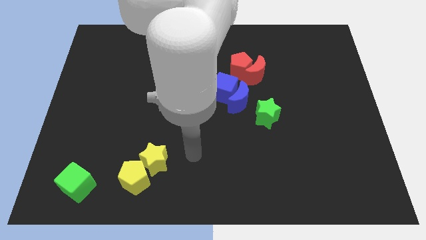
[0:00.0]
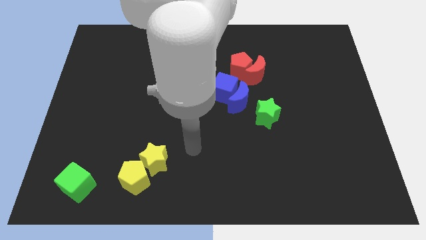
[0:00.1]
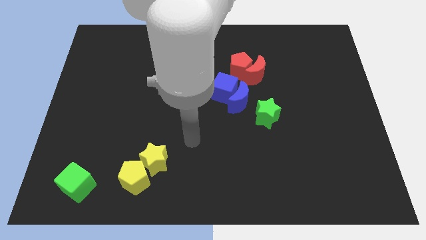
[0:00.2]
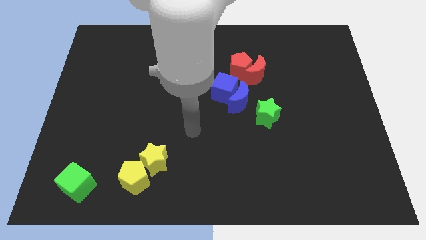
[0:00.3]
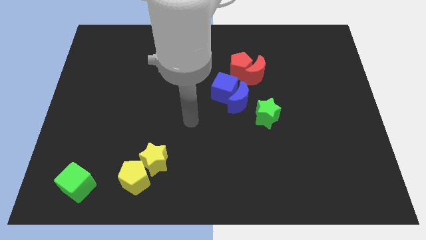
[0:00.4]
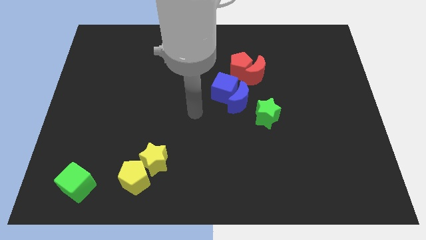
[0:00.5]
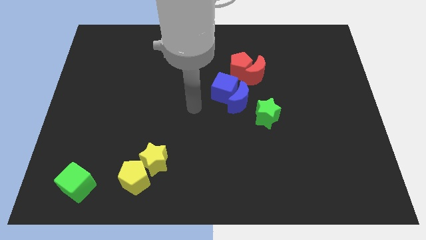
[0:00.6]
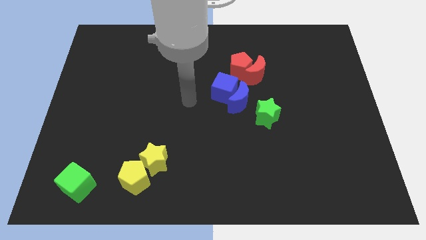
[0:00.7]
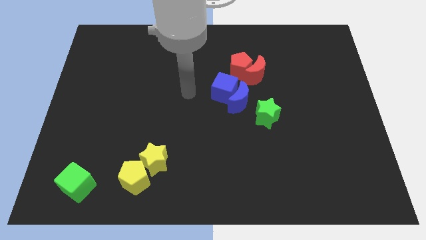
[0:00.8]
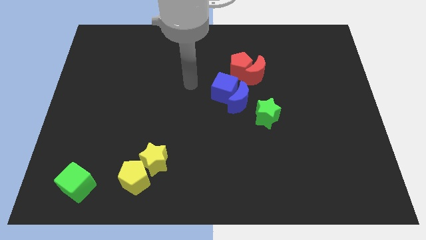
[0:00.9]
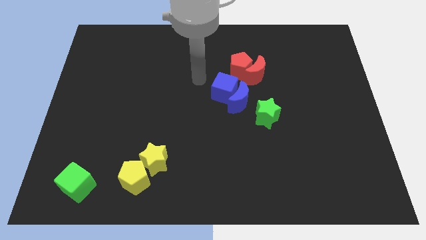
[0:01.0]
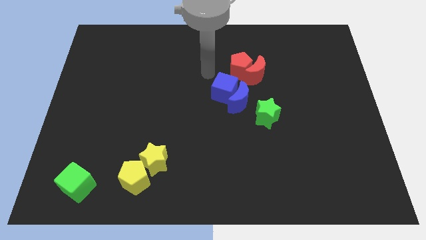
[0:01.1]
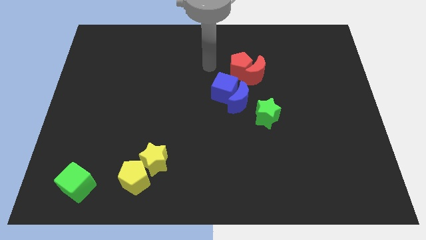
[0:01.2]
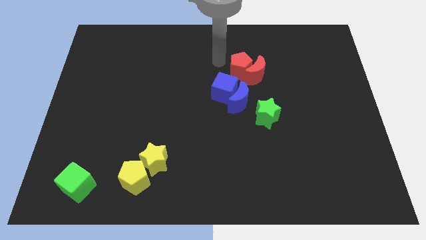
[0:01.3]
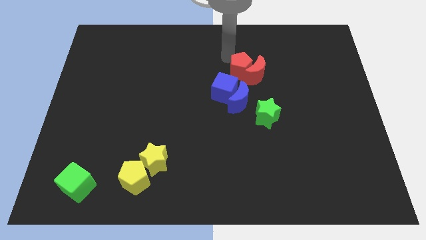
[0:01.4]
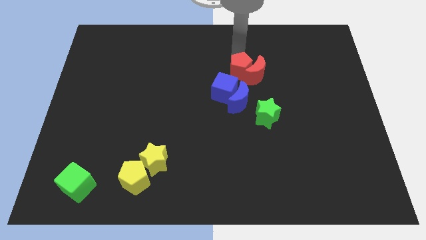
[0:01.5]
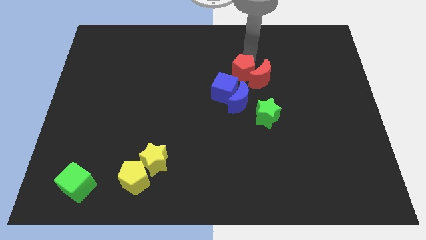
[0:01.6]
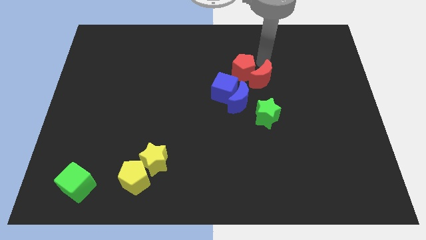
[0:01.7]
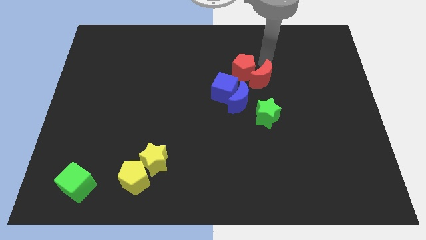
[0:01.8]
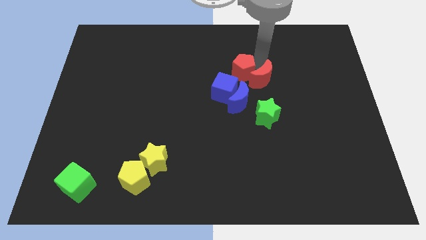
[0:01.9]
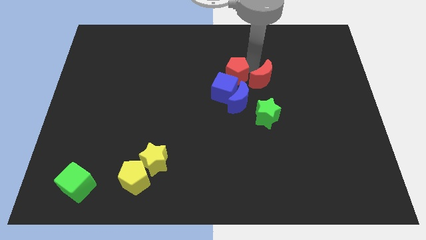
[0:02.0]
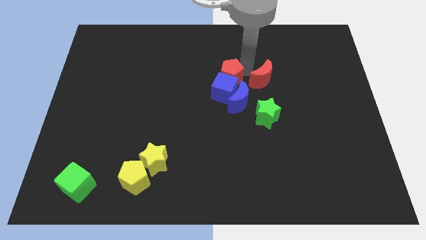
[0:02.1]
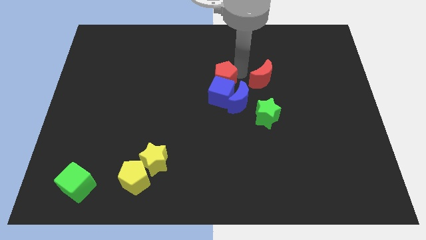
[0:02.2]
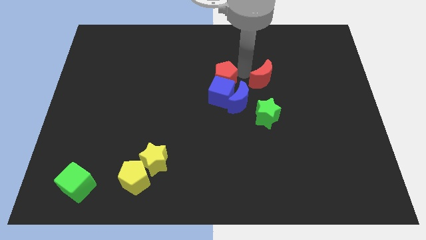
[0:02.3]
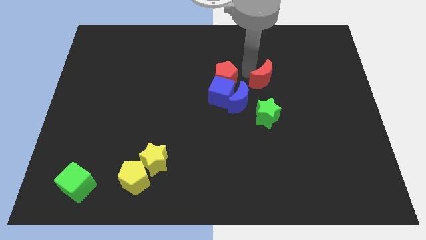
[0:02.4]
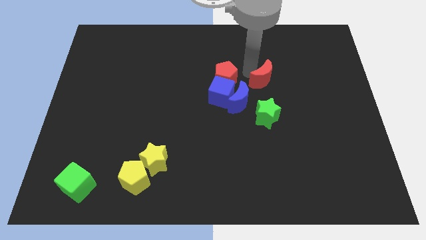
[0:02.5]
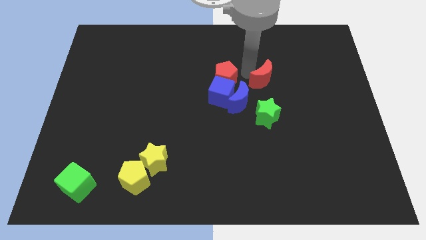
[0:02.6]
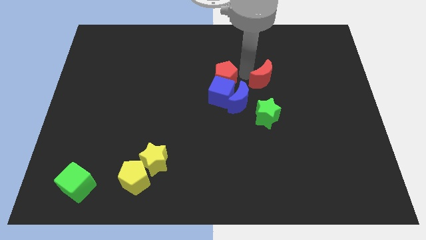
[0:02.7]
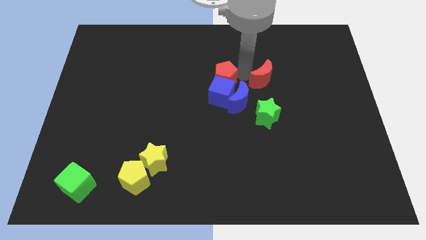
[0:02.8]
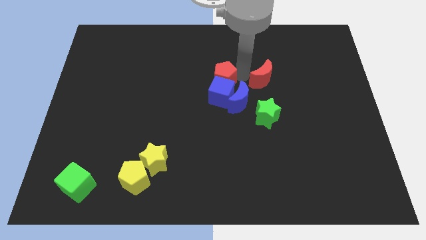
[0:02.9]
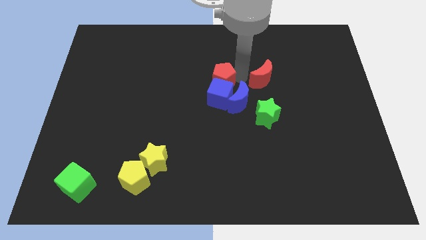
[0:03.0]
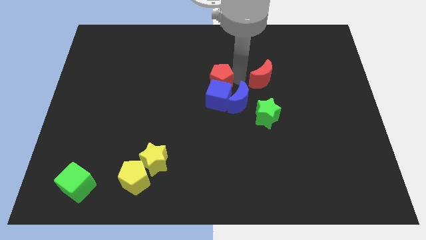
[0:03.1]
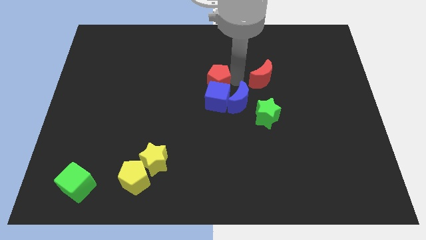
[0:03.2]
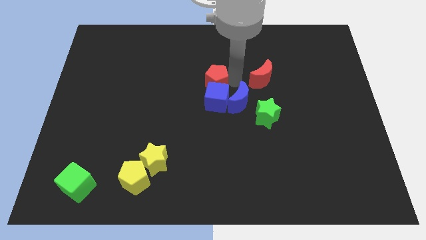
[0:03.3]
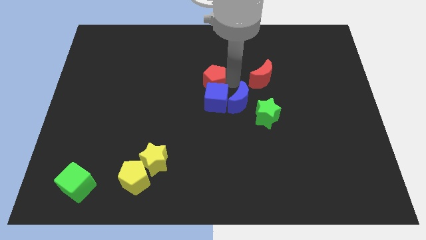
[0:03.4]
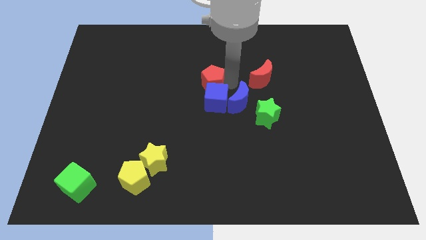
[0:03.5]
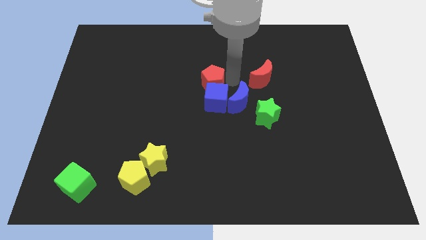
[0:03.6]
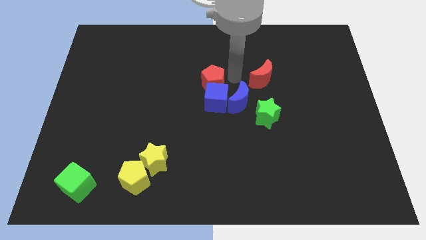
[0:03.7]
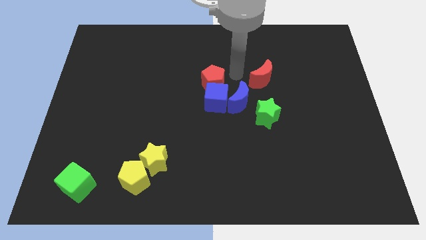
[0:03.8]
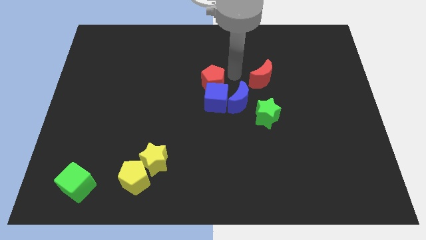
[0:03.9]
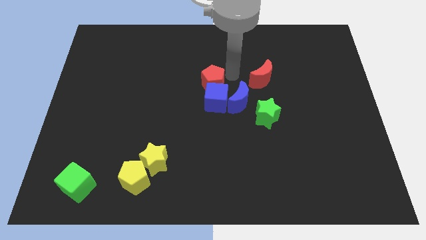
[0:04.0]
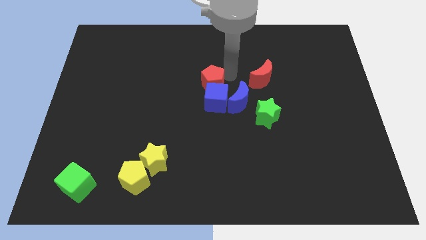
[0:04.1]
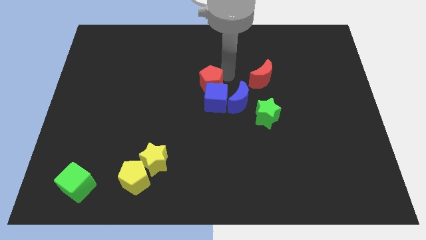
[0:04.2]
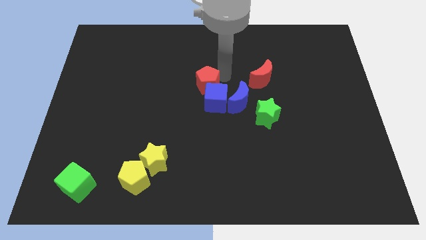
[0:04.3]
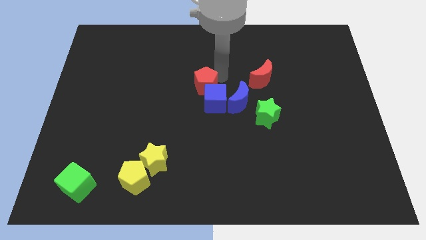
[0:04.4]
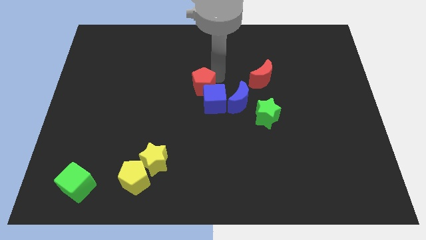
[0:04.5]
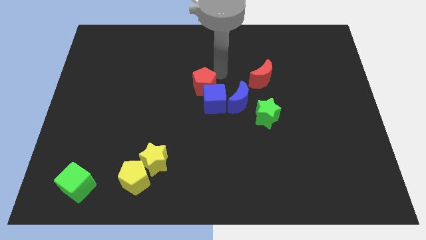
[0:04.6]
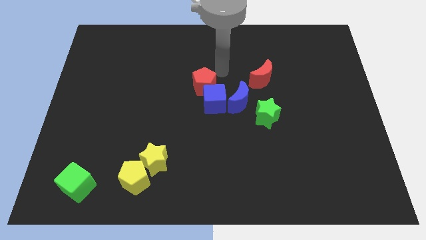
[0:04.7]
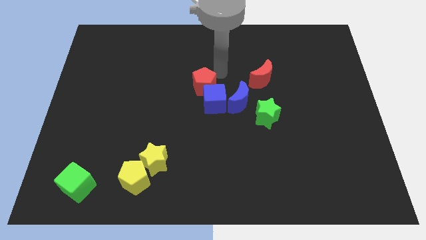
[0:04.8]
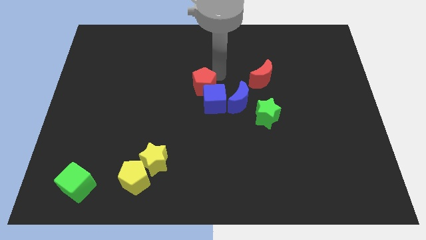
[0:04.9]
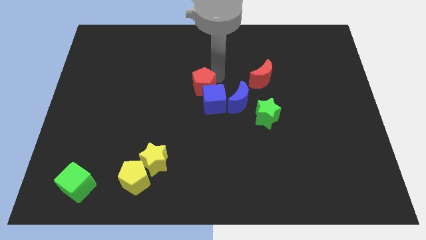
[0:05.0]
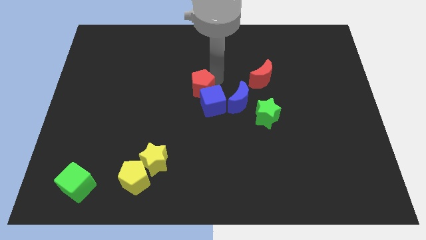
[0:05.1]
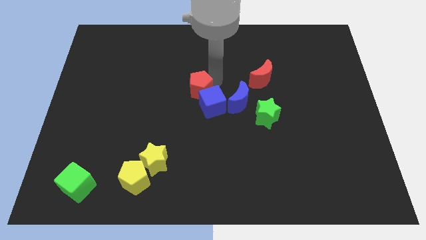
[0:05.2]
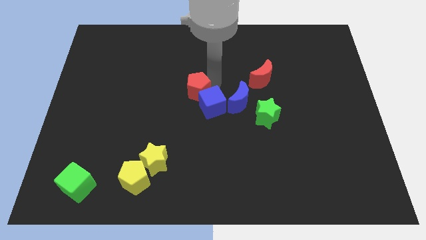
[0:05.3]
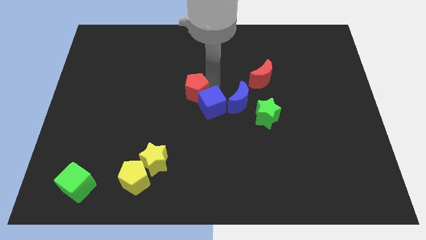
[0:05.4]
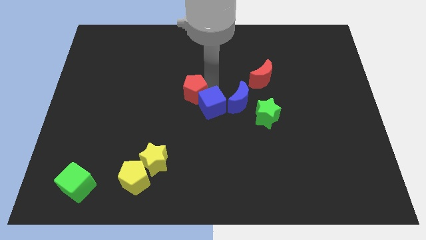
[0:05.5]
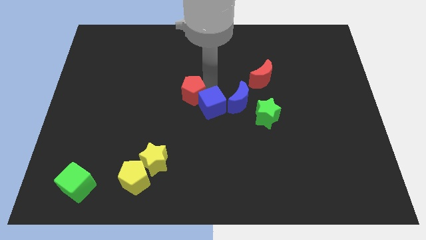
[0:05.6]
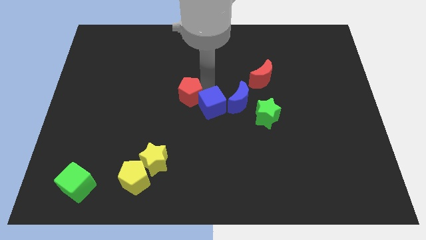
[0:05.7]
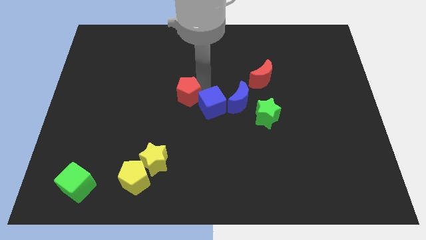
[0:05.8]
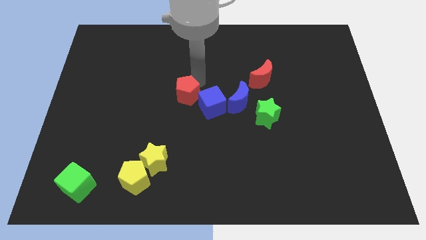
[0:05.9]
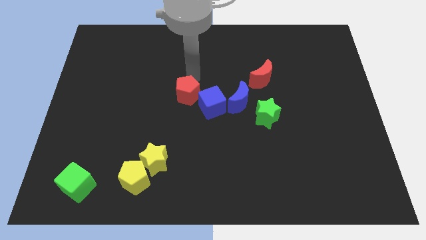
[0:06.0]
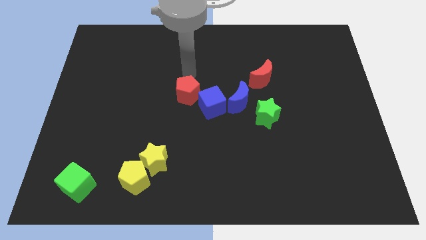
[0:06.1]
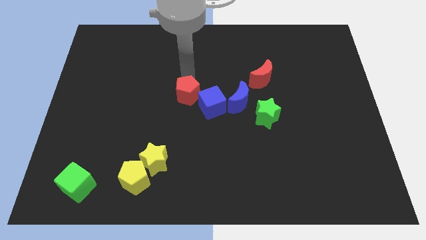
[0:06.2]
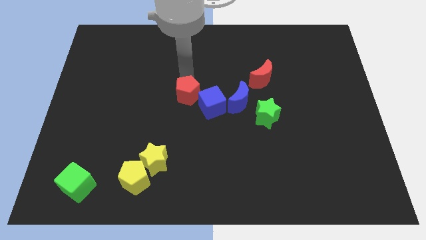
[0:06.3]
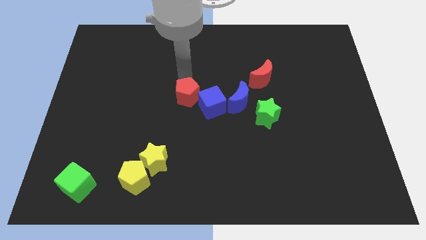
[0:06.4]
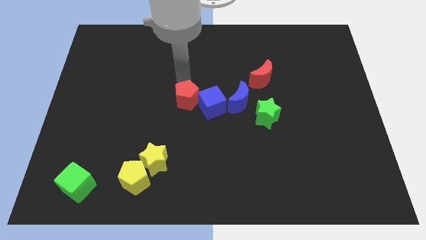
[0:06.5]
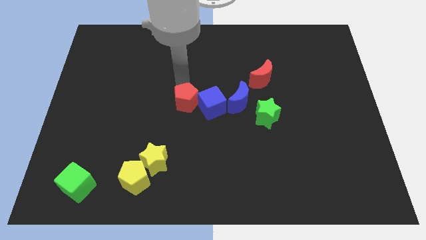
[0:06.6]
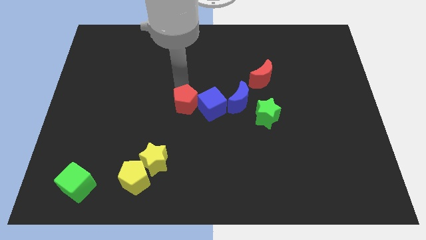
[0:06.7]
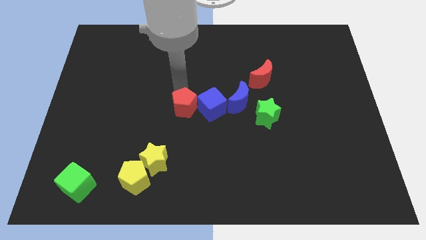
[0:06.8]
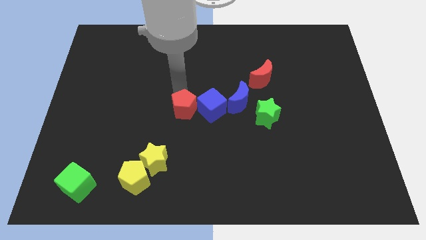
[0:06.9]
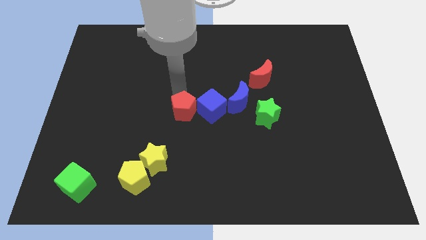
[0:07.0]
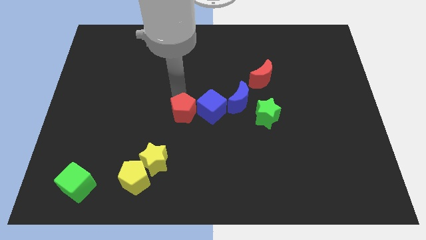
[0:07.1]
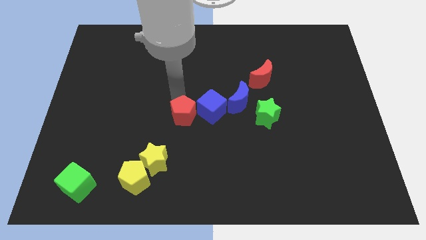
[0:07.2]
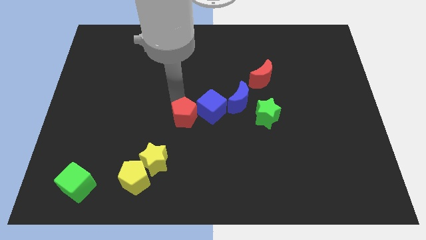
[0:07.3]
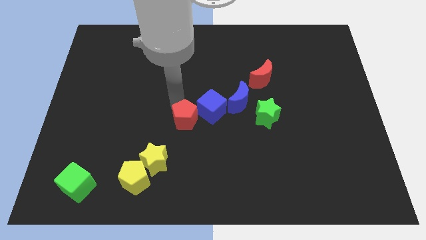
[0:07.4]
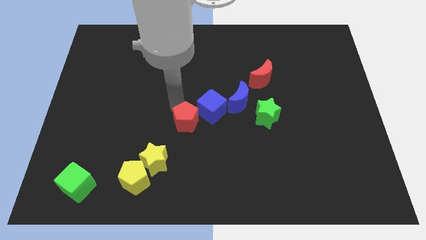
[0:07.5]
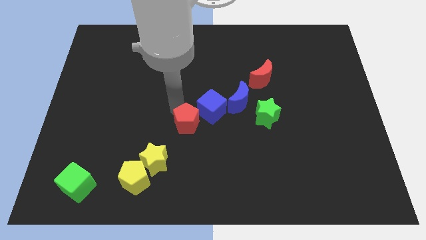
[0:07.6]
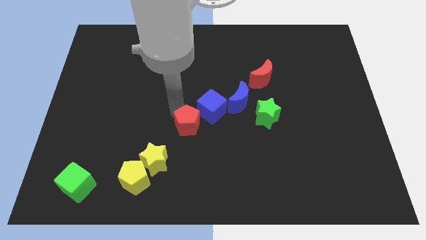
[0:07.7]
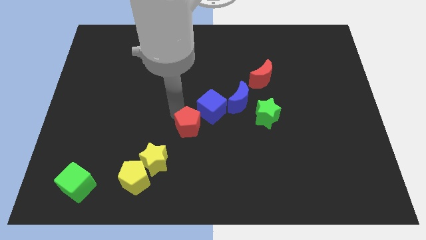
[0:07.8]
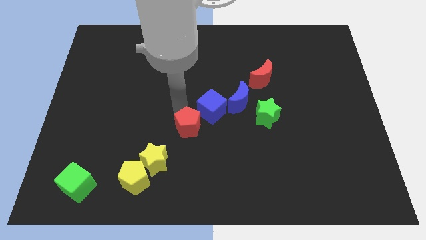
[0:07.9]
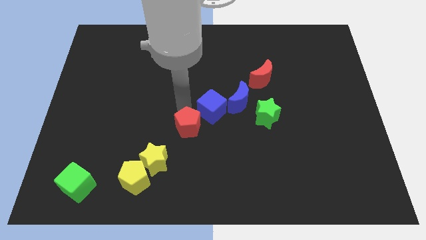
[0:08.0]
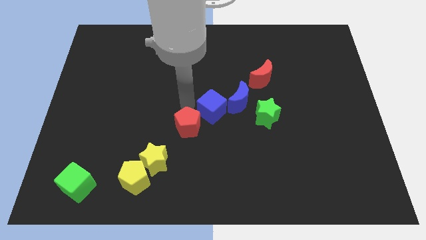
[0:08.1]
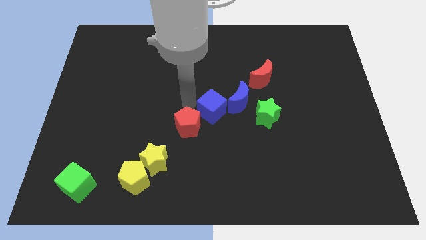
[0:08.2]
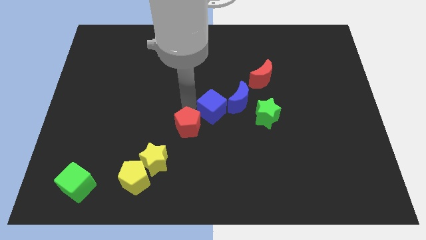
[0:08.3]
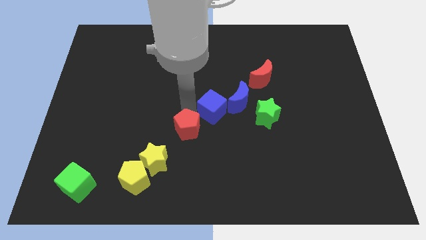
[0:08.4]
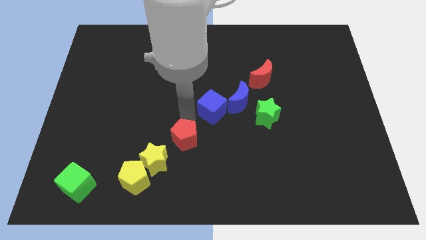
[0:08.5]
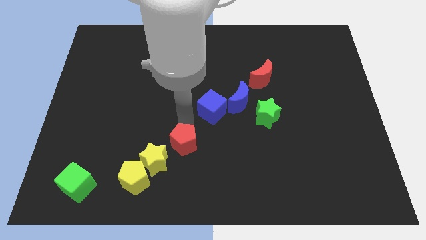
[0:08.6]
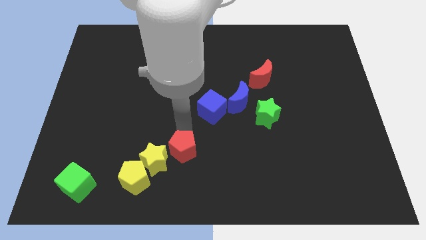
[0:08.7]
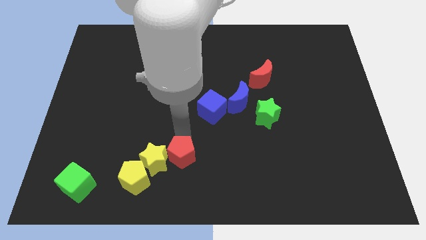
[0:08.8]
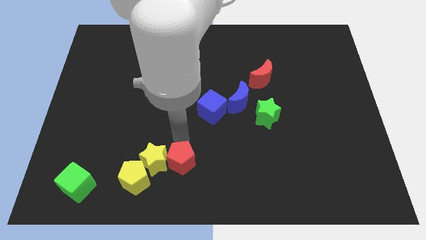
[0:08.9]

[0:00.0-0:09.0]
push the red pentagon to the bottom
